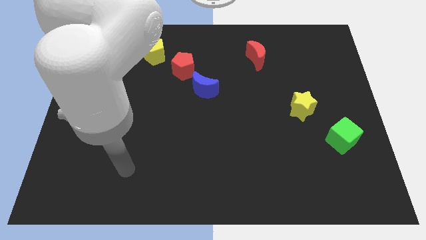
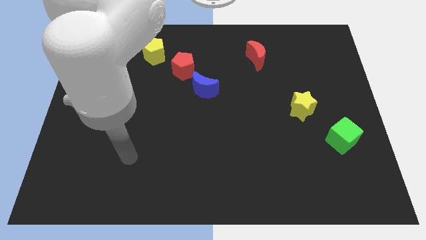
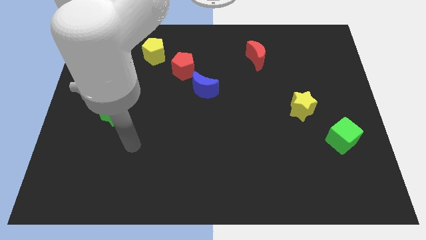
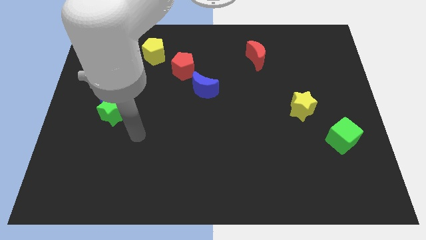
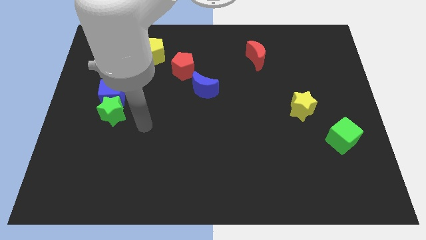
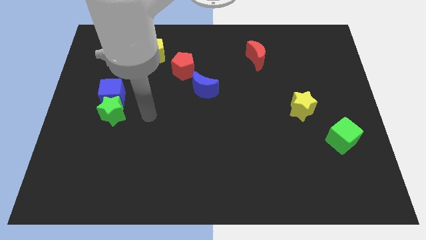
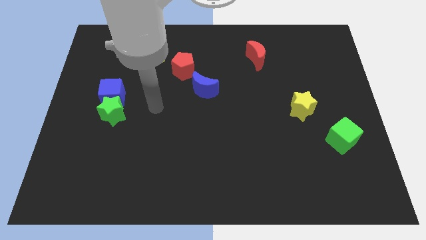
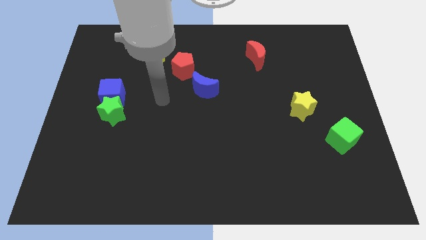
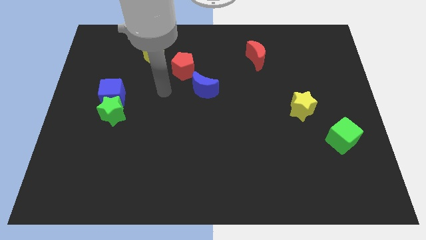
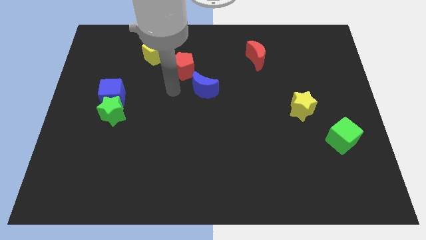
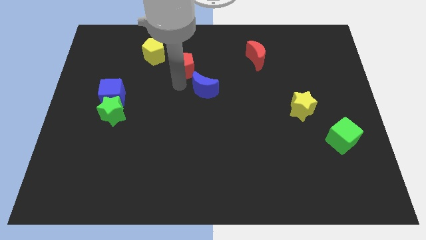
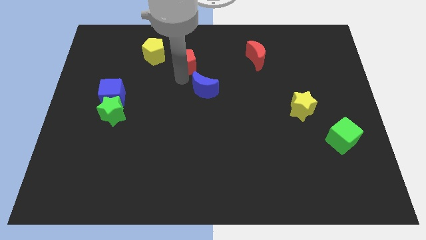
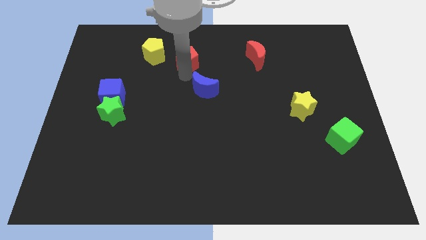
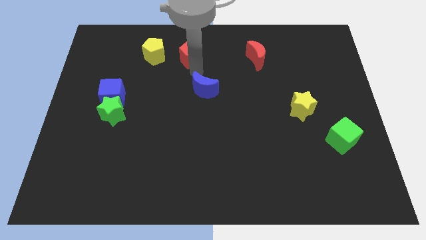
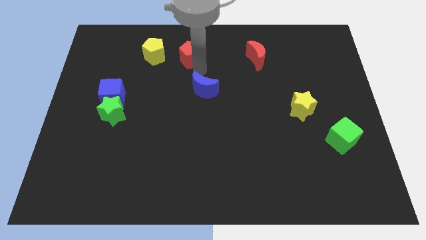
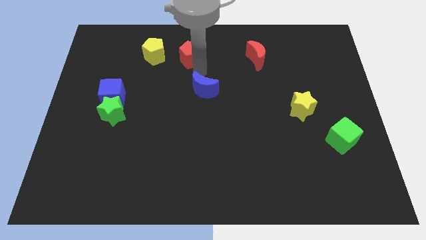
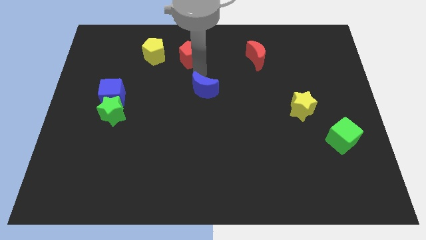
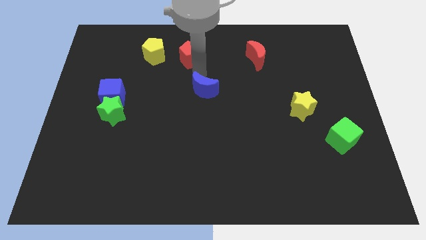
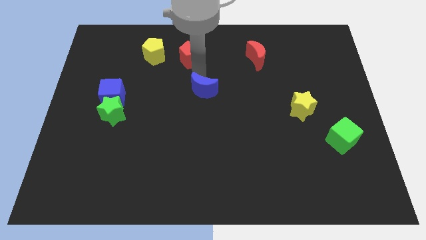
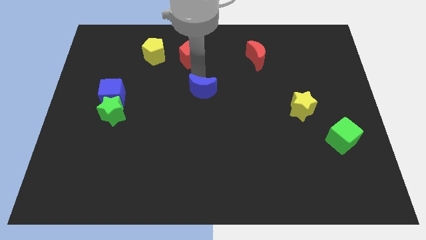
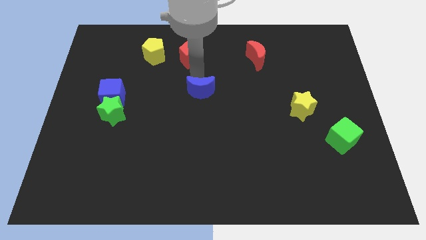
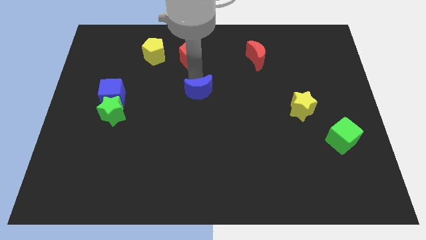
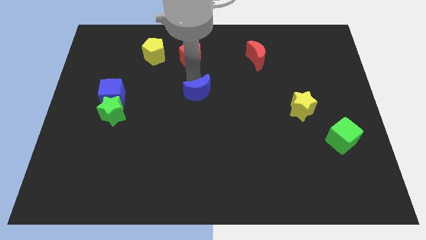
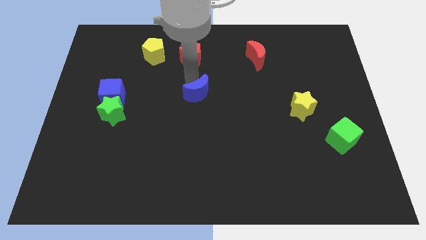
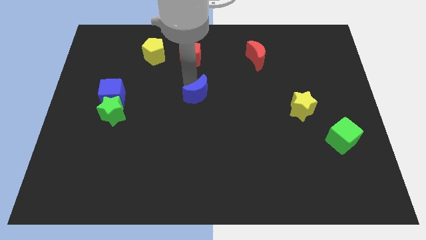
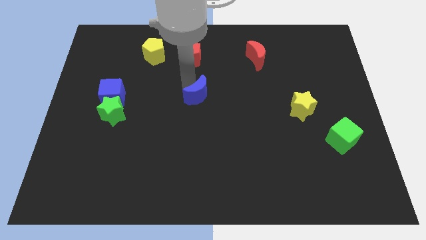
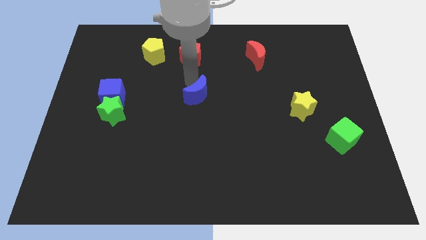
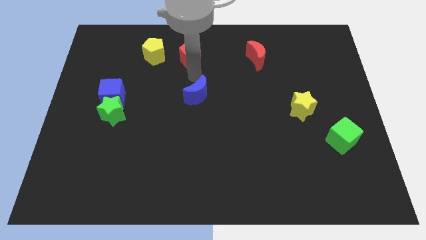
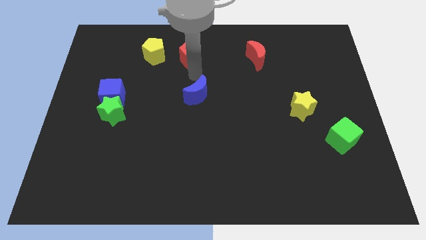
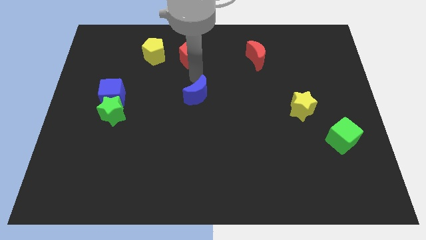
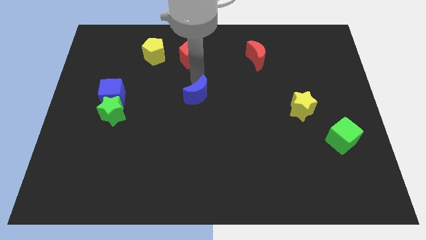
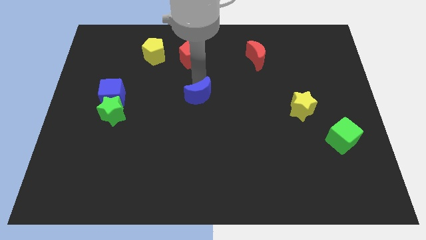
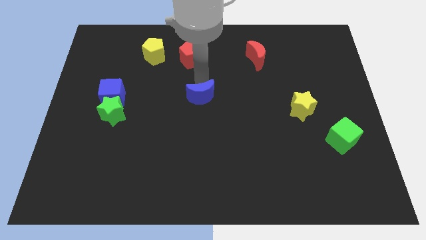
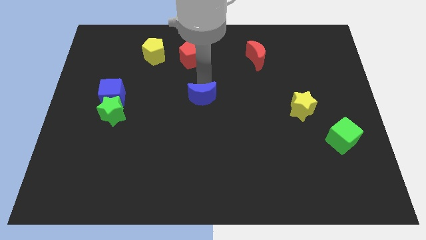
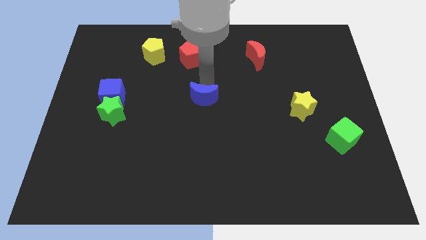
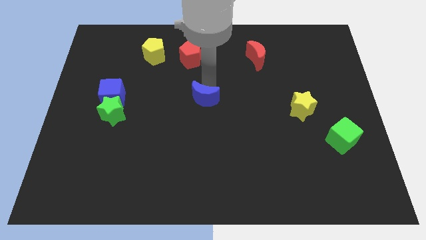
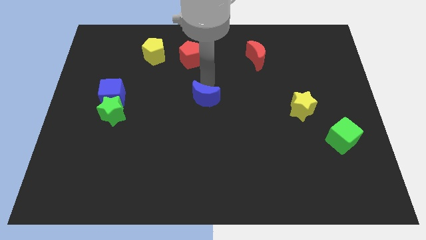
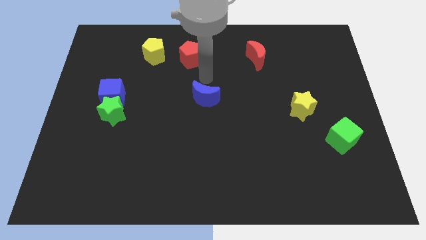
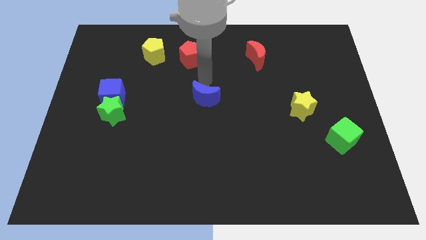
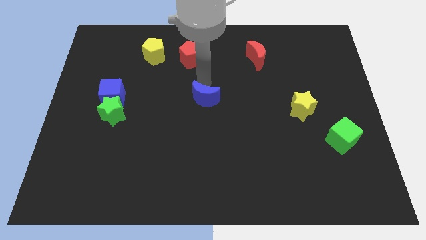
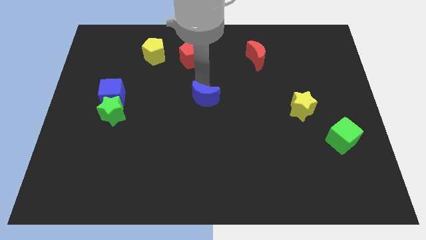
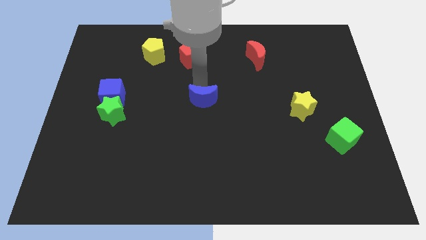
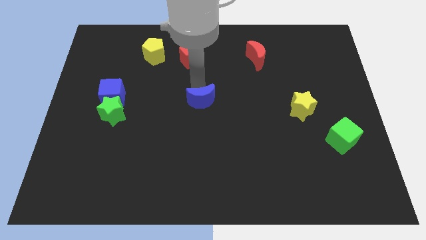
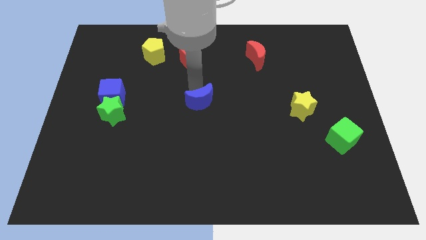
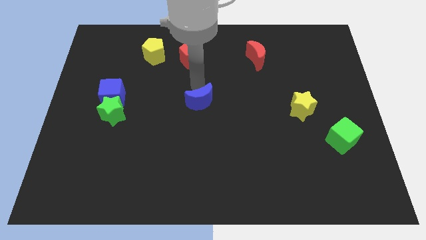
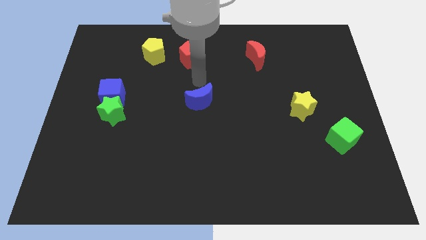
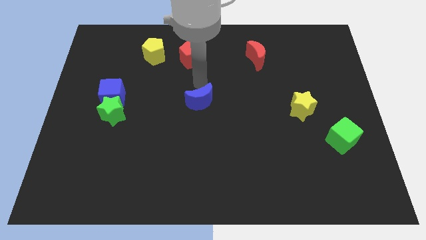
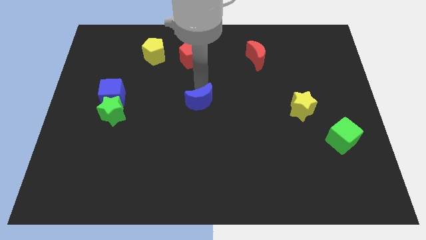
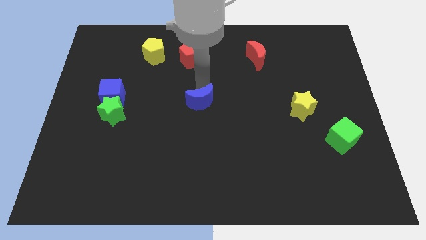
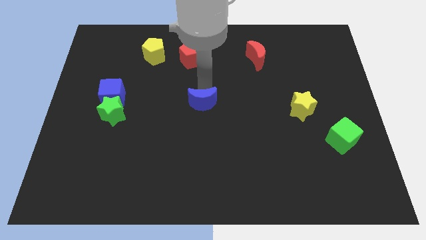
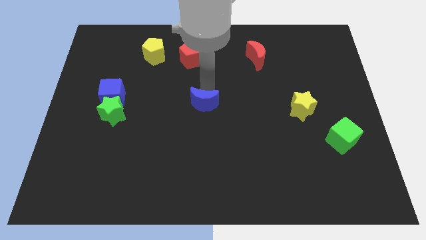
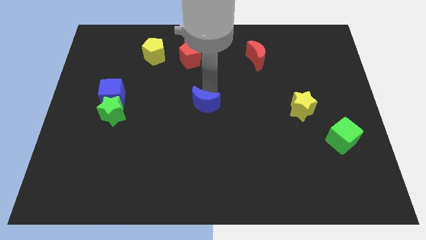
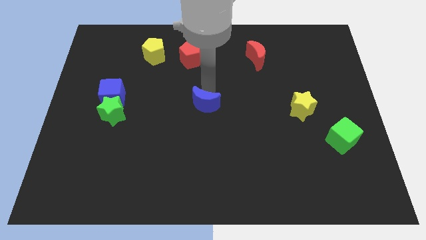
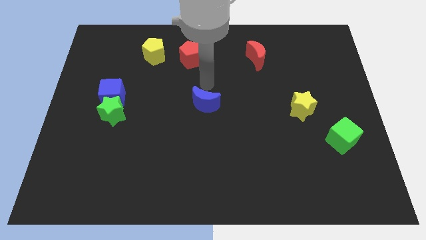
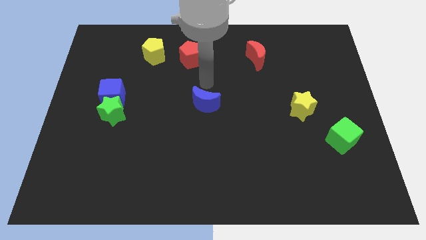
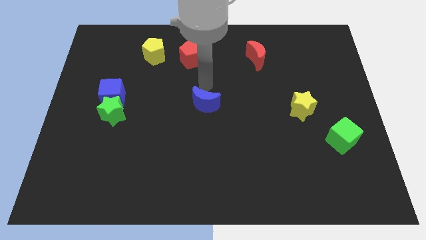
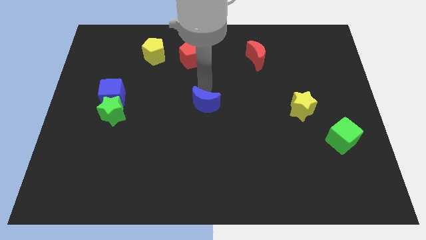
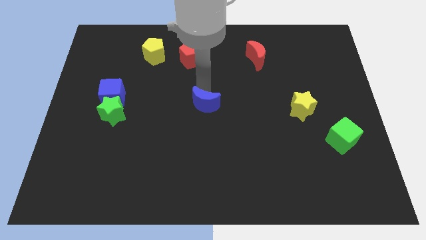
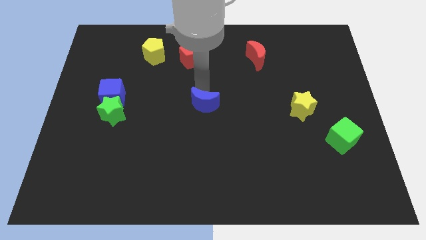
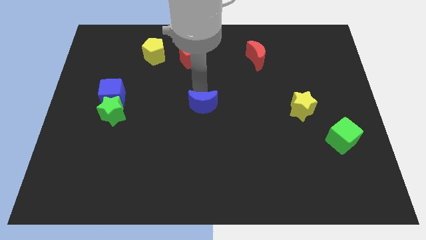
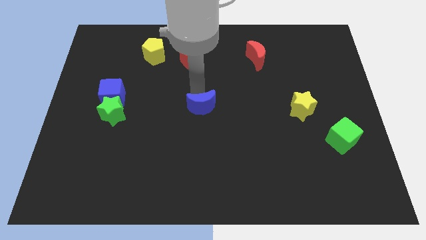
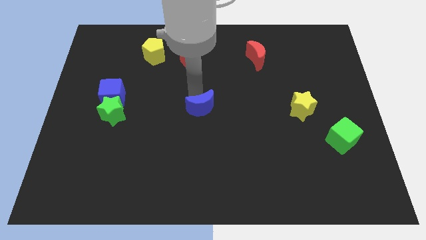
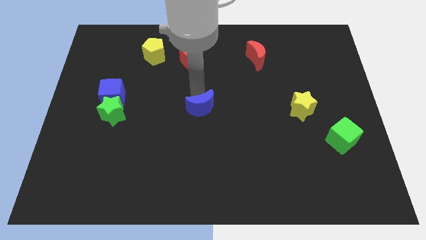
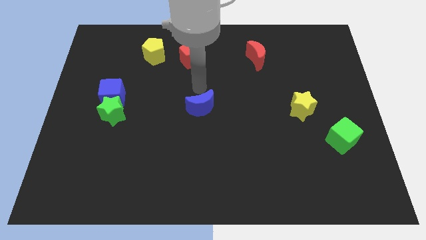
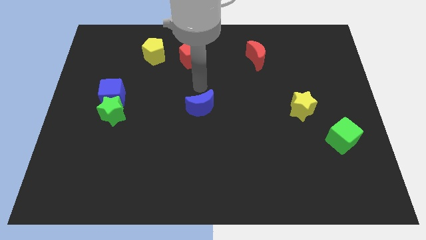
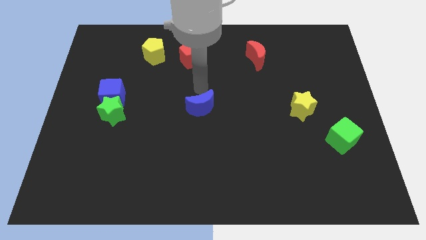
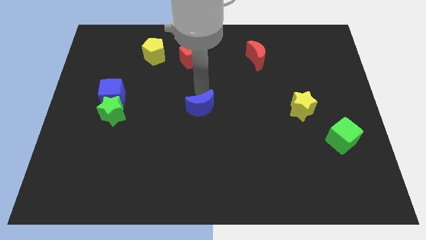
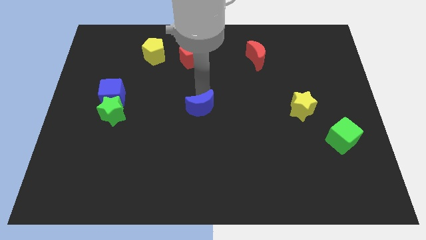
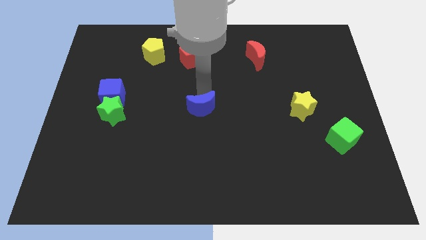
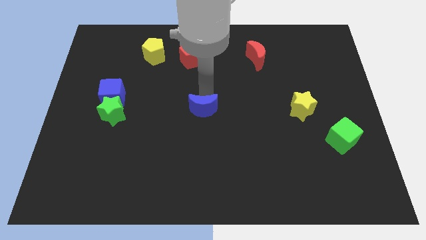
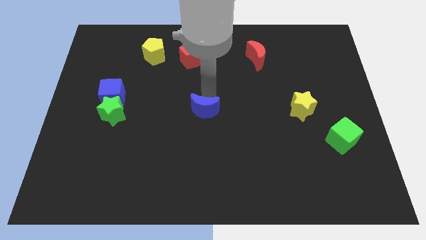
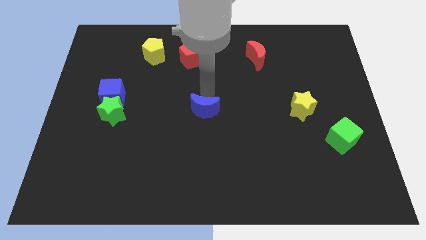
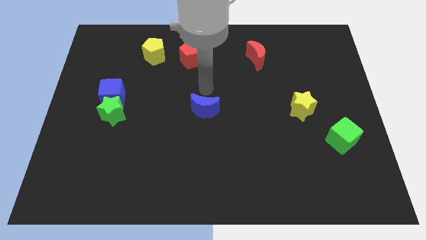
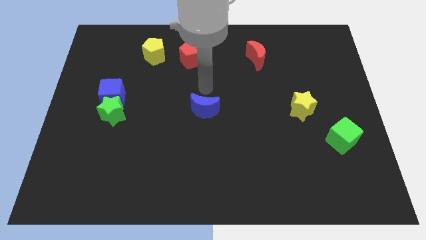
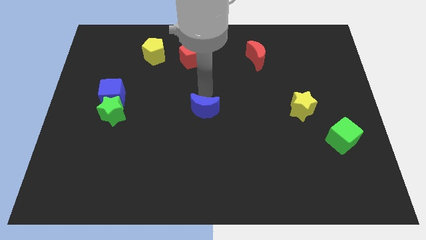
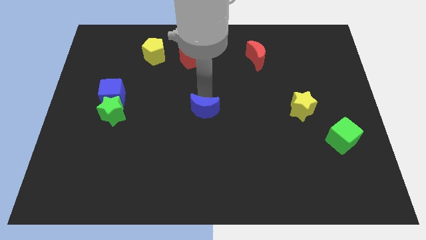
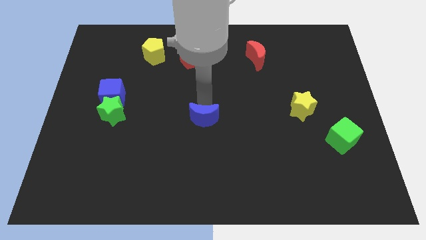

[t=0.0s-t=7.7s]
move the blue moon downwards slightly

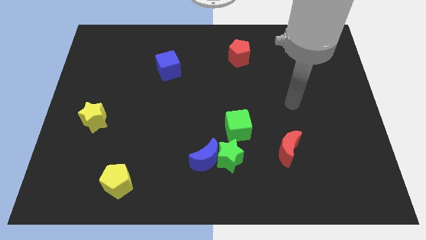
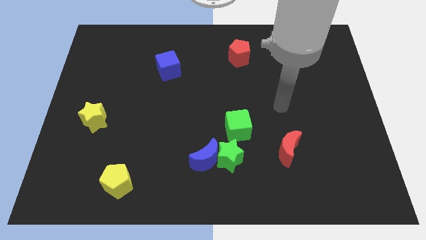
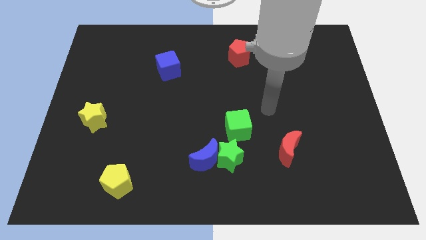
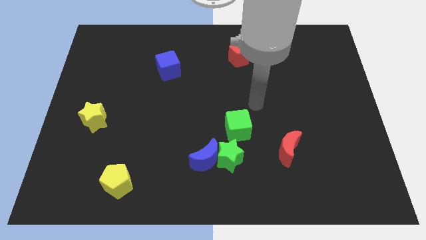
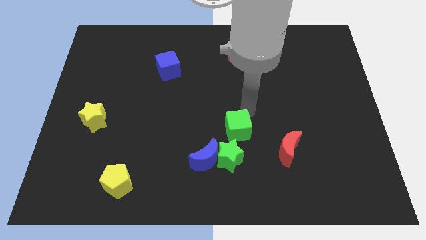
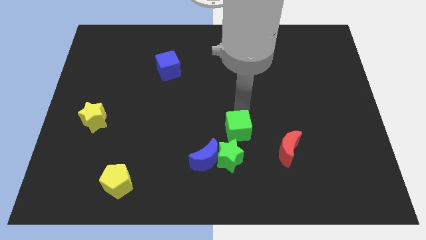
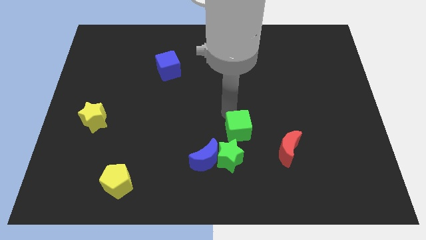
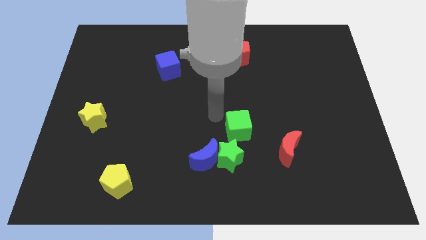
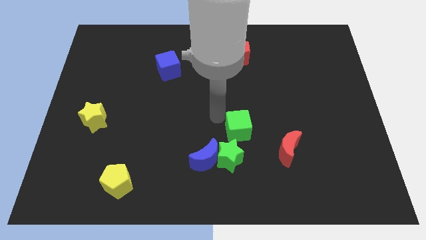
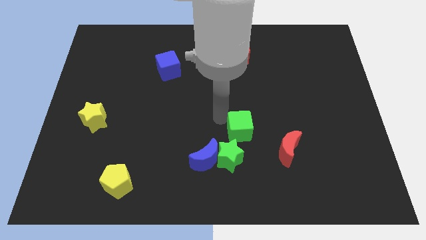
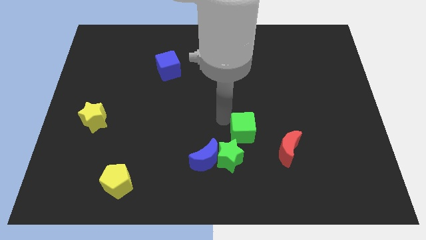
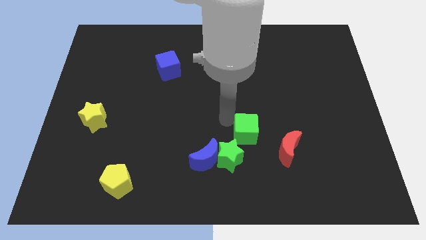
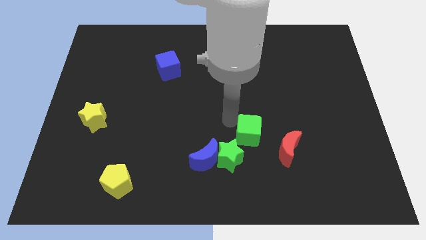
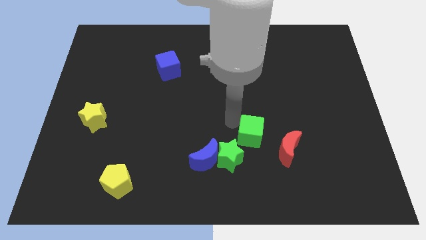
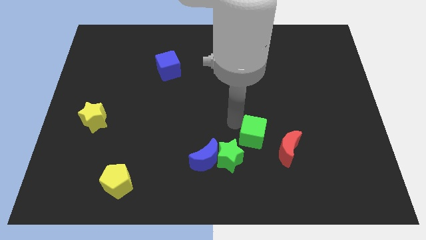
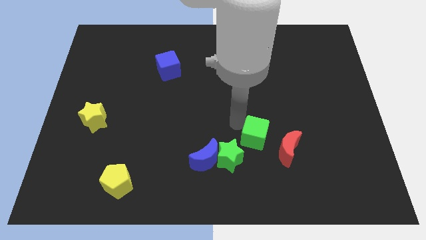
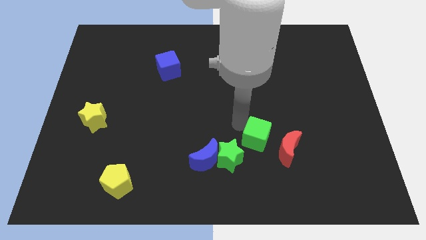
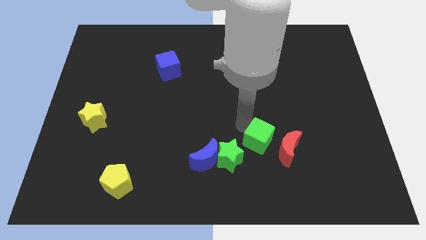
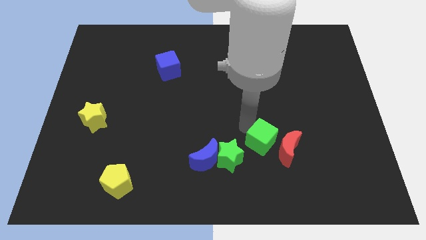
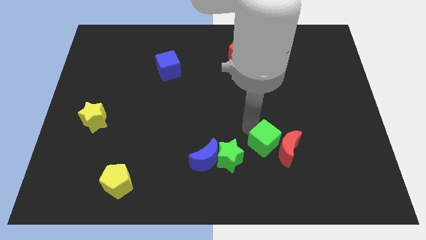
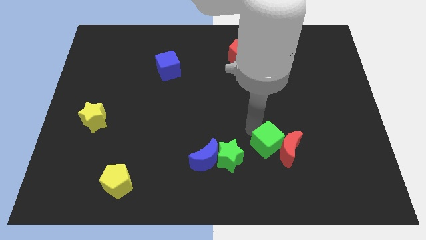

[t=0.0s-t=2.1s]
move the green cube downwards and right a little bit
